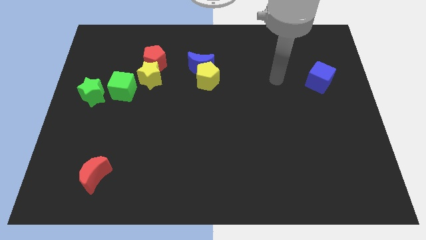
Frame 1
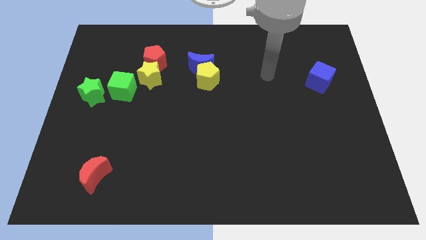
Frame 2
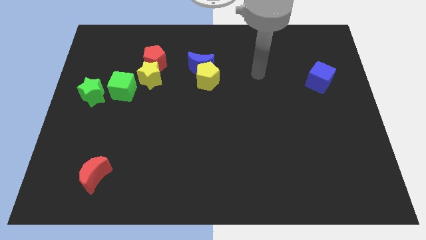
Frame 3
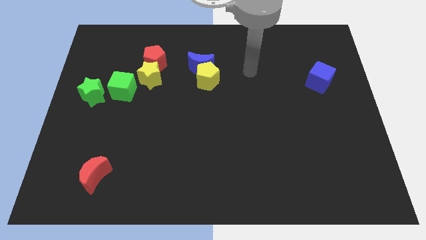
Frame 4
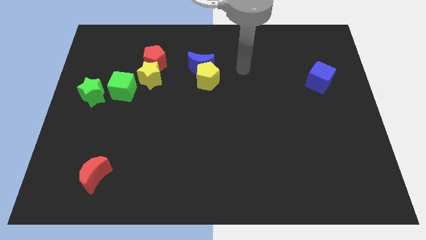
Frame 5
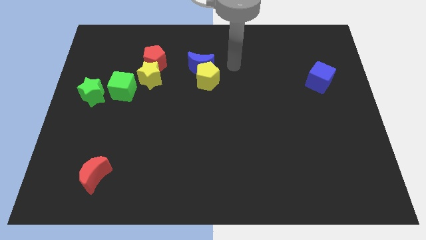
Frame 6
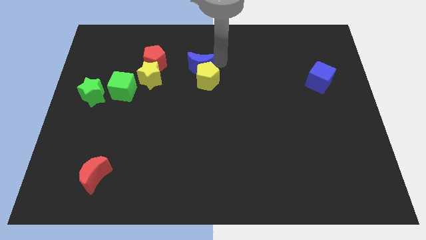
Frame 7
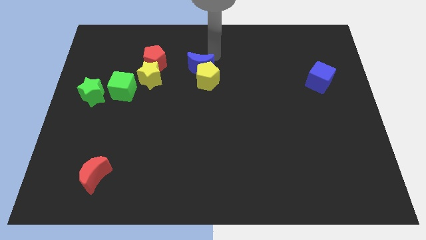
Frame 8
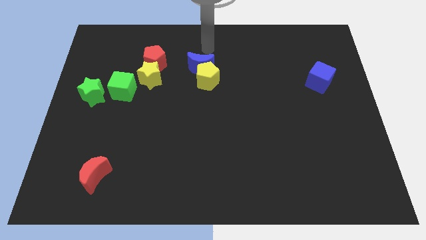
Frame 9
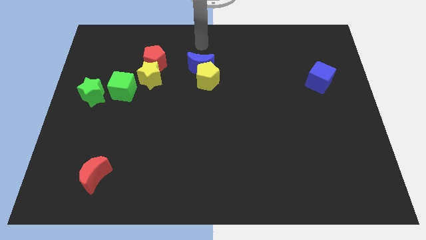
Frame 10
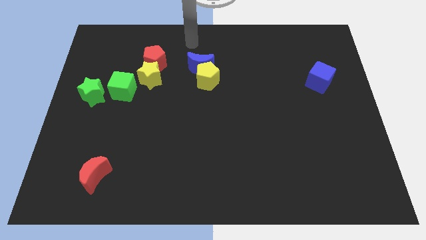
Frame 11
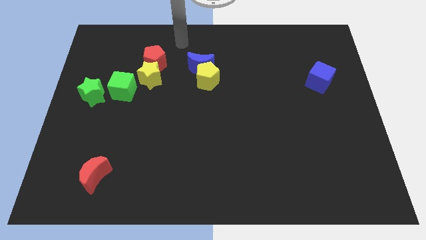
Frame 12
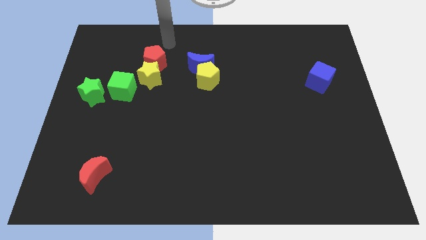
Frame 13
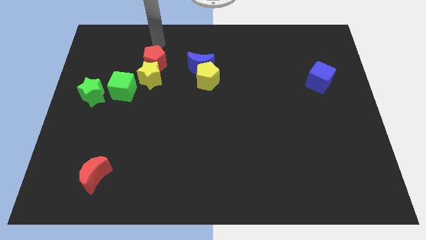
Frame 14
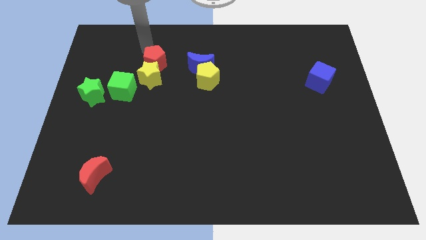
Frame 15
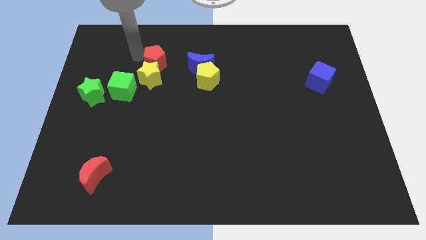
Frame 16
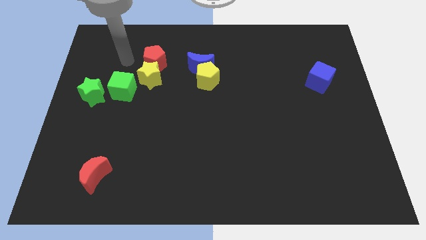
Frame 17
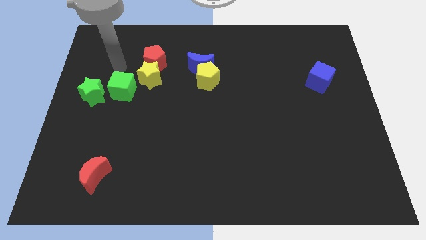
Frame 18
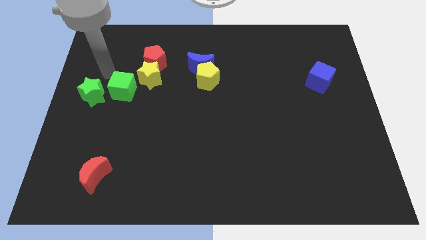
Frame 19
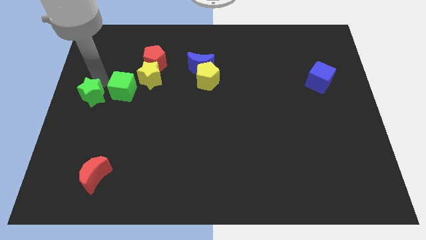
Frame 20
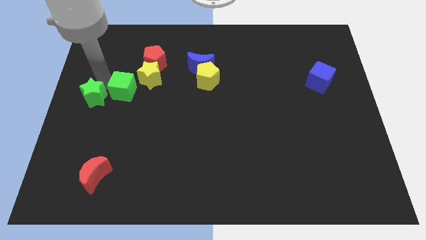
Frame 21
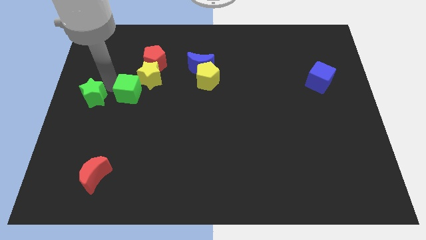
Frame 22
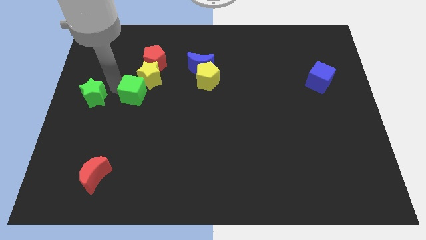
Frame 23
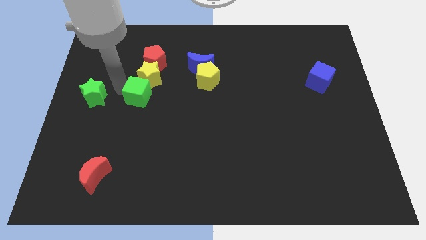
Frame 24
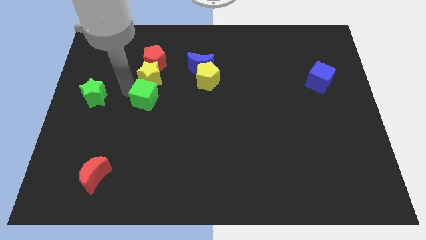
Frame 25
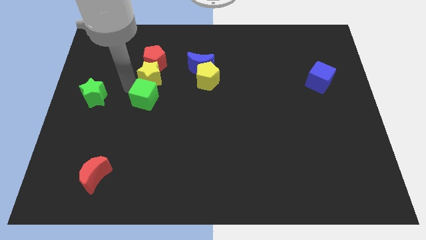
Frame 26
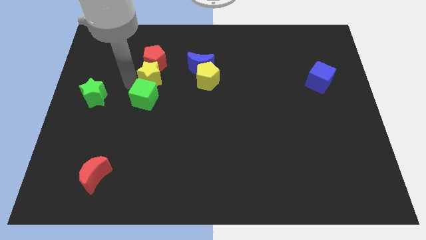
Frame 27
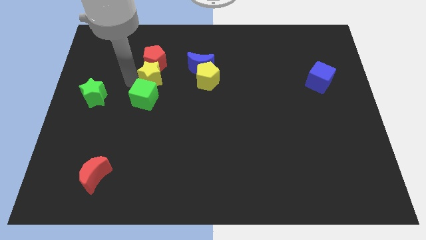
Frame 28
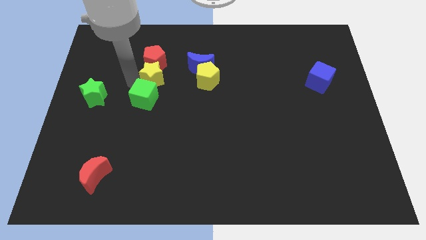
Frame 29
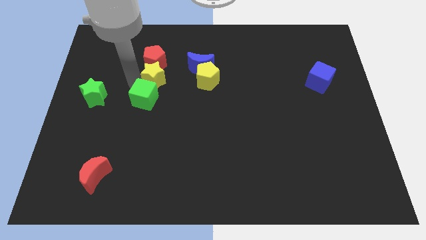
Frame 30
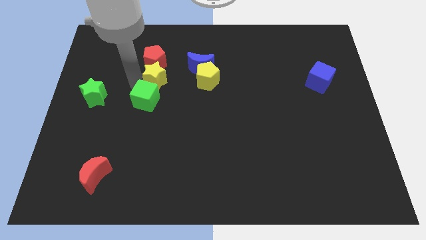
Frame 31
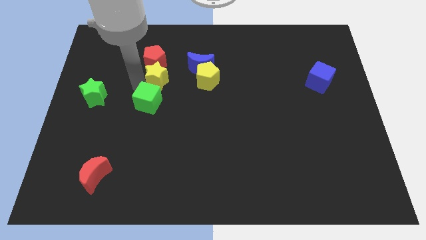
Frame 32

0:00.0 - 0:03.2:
slide the green cube slightly down and then to the right

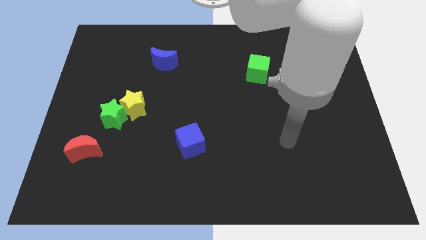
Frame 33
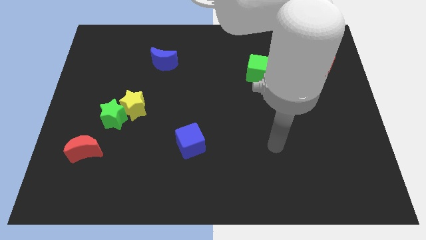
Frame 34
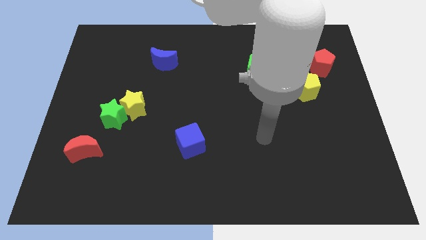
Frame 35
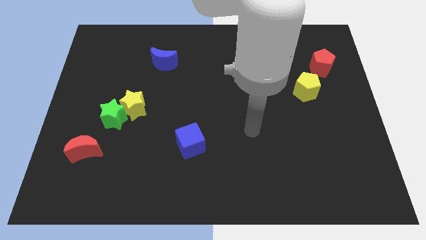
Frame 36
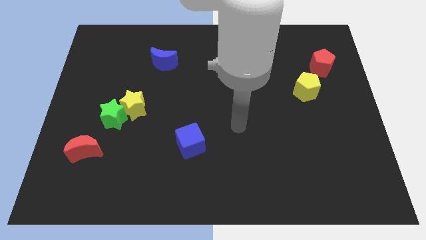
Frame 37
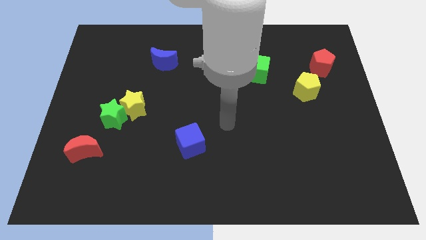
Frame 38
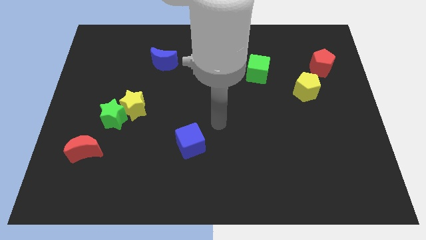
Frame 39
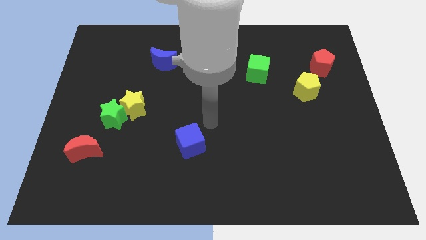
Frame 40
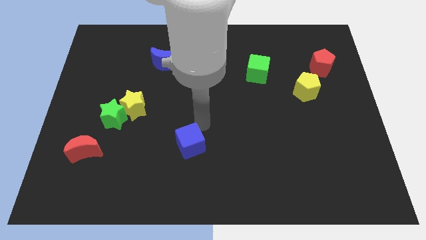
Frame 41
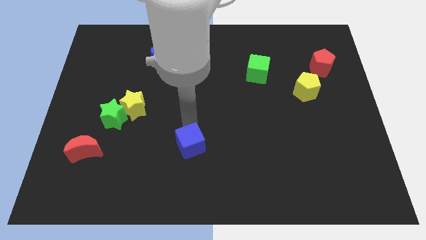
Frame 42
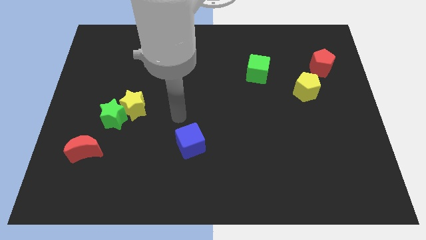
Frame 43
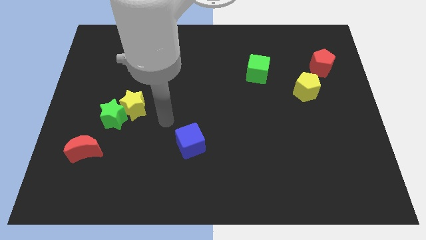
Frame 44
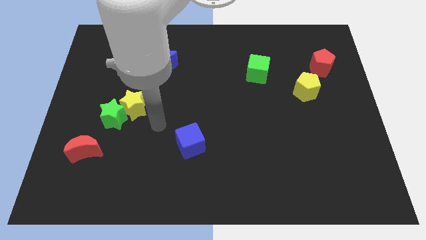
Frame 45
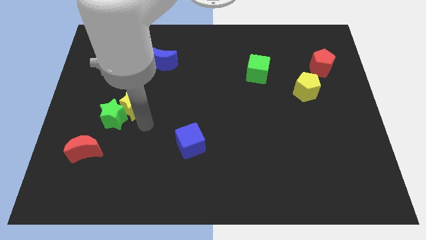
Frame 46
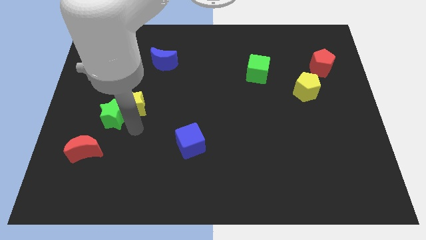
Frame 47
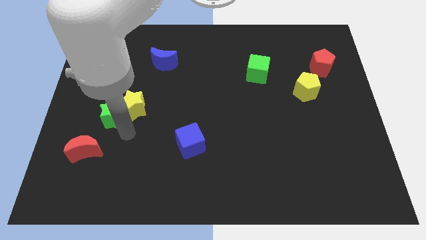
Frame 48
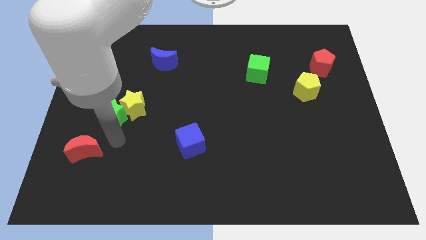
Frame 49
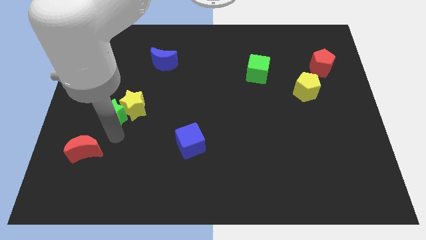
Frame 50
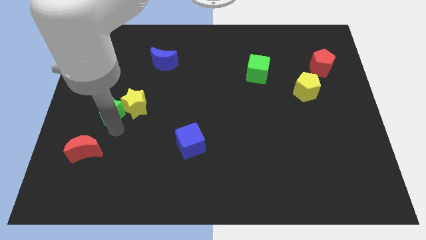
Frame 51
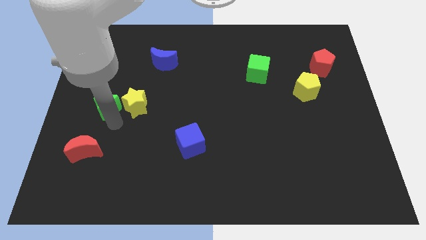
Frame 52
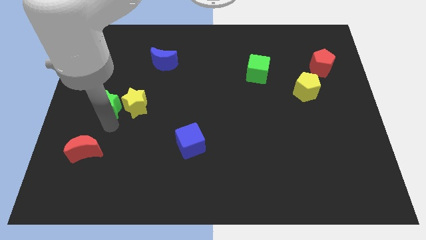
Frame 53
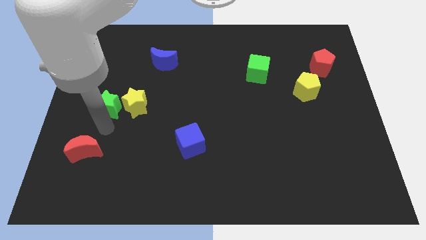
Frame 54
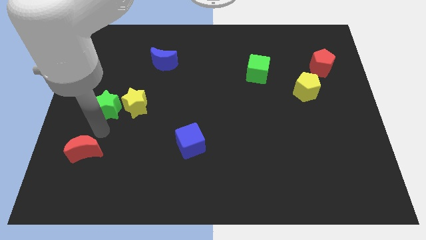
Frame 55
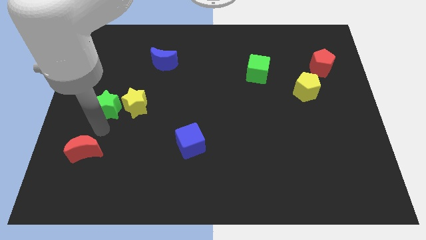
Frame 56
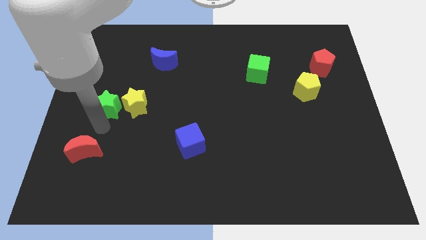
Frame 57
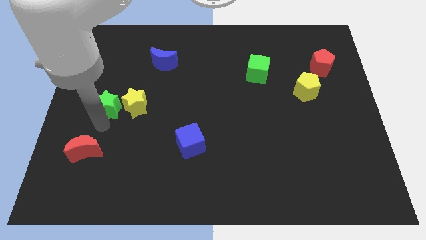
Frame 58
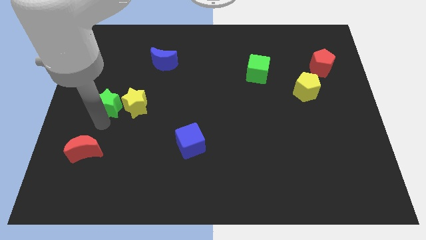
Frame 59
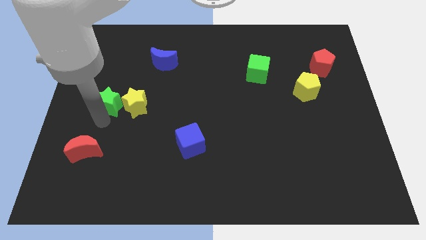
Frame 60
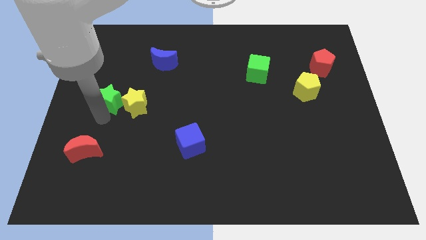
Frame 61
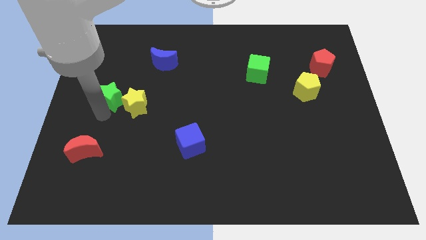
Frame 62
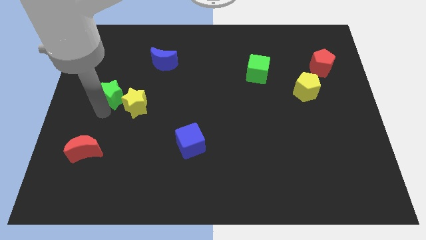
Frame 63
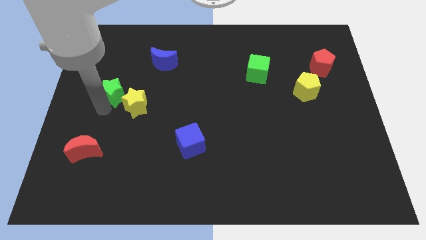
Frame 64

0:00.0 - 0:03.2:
slide the green star a little up

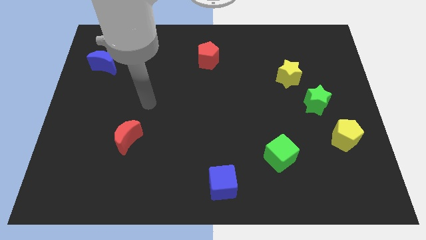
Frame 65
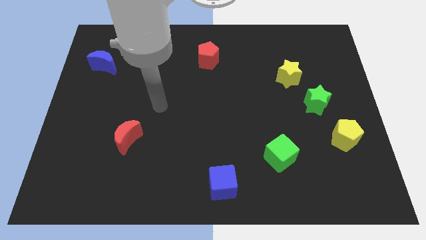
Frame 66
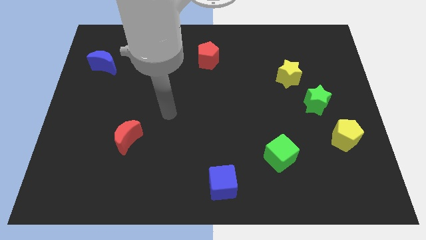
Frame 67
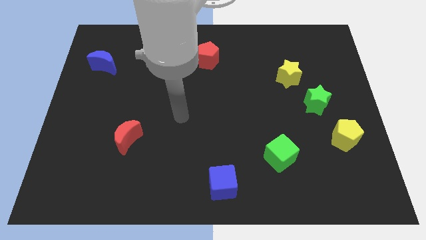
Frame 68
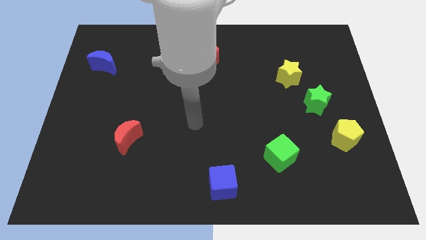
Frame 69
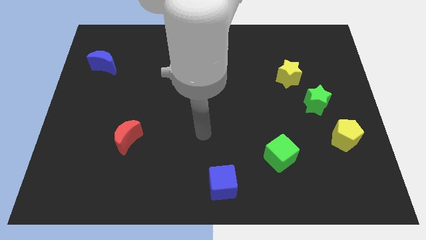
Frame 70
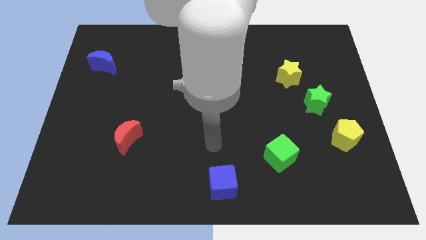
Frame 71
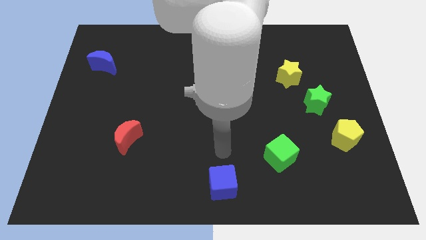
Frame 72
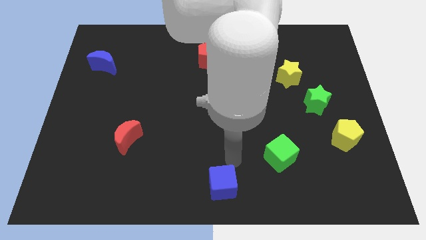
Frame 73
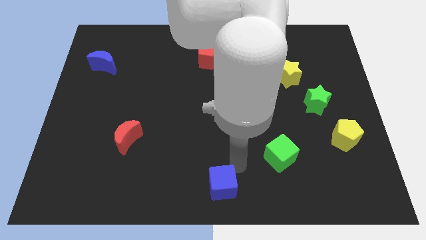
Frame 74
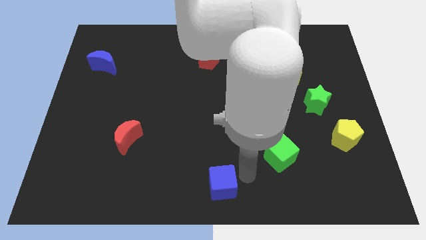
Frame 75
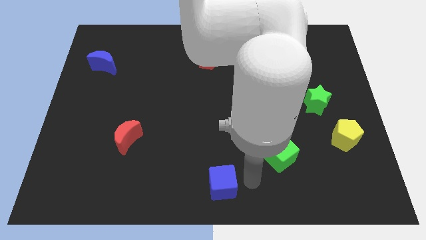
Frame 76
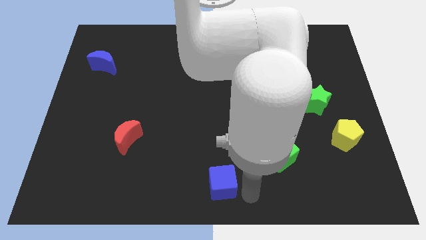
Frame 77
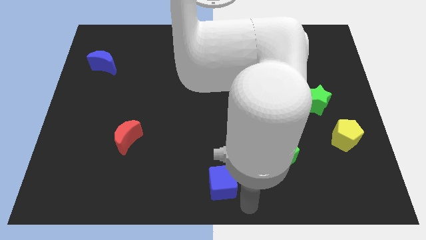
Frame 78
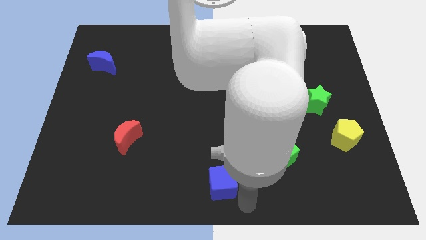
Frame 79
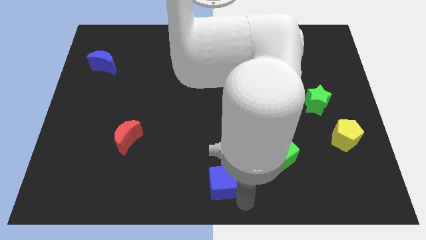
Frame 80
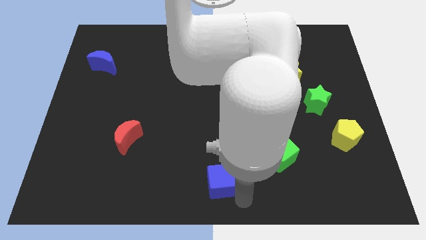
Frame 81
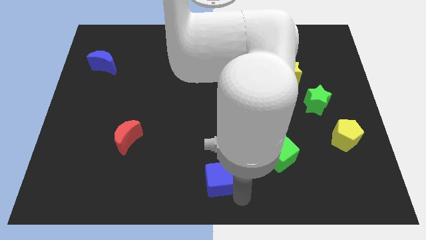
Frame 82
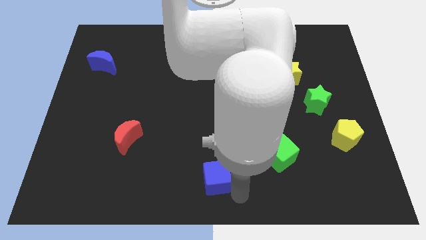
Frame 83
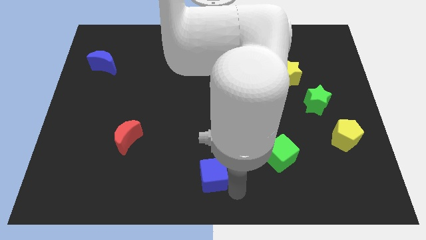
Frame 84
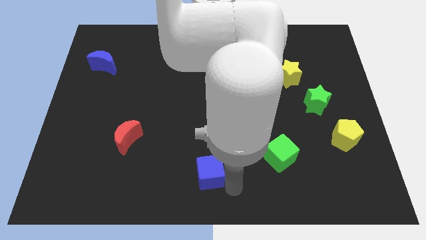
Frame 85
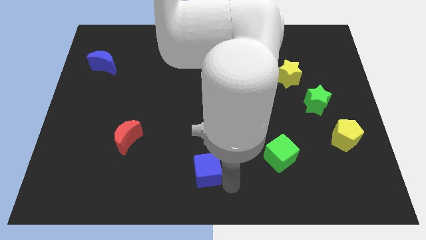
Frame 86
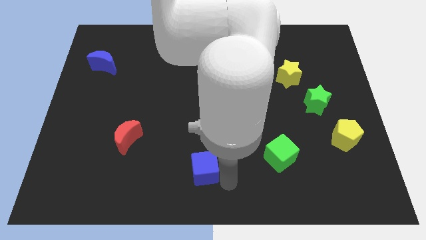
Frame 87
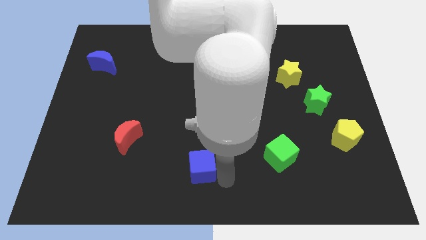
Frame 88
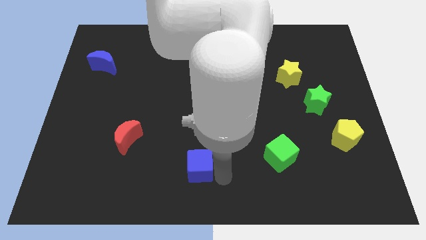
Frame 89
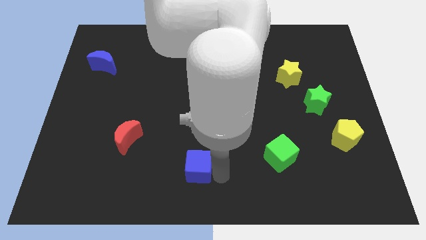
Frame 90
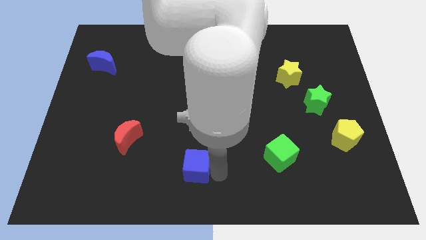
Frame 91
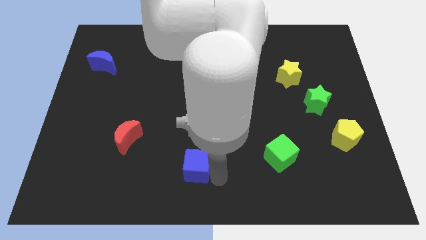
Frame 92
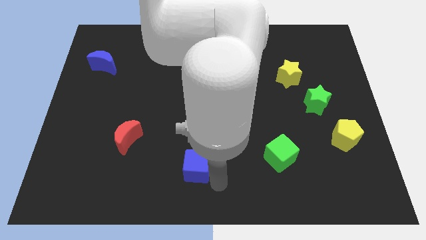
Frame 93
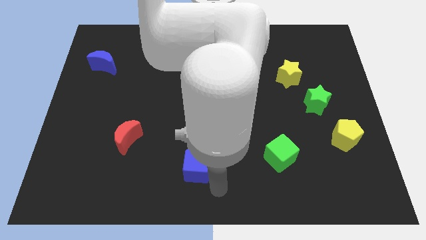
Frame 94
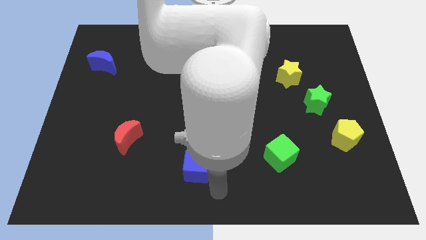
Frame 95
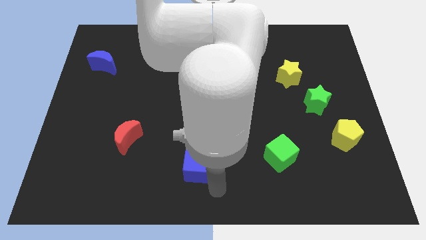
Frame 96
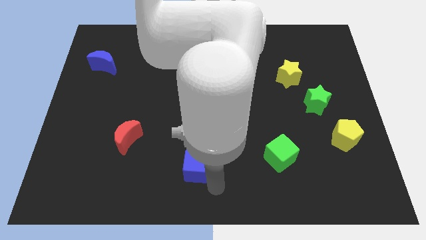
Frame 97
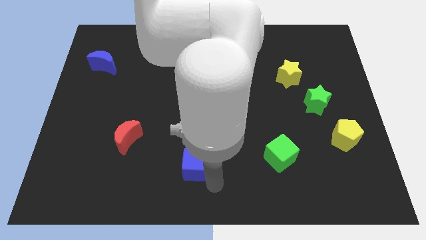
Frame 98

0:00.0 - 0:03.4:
slide the blue cube diagonally upwards and left somewhat
